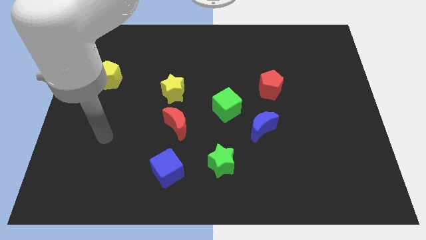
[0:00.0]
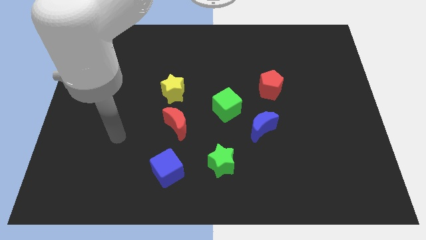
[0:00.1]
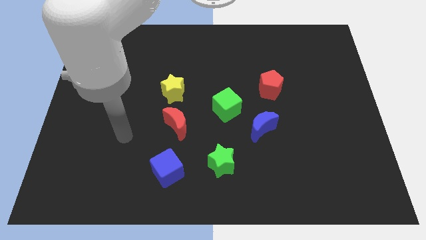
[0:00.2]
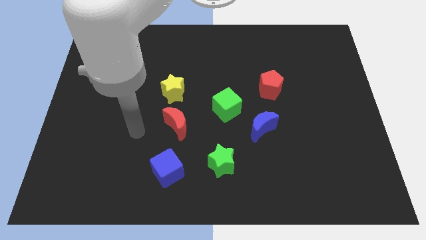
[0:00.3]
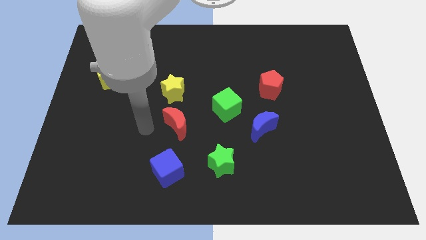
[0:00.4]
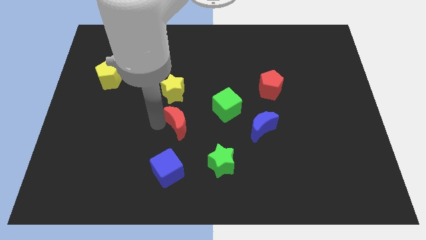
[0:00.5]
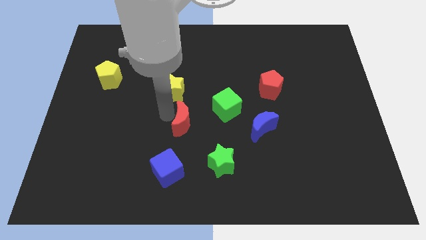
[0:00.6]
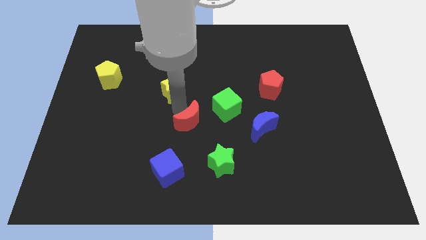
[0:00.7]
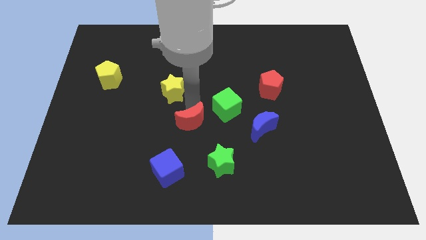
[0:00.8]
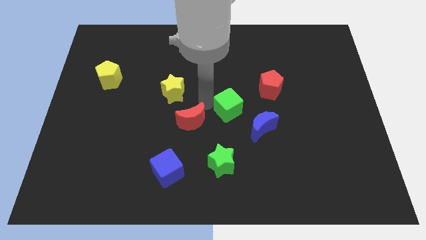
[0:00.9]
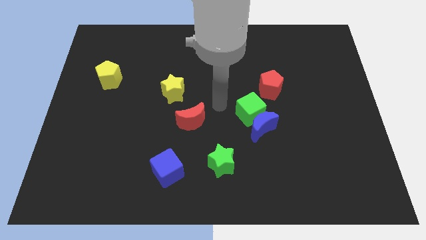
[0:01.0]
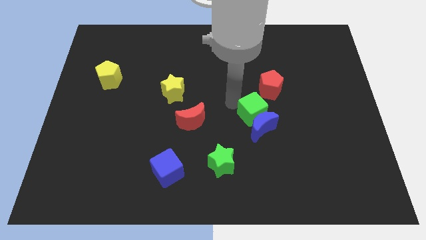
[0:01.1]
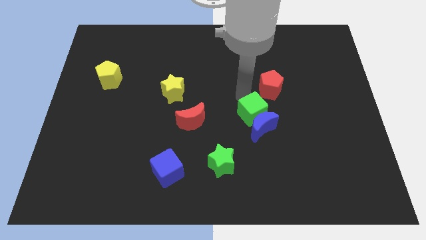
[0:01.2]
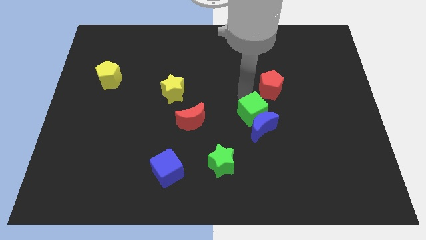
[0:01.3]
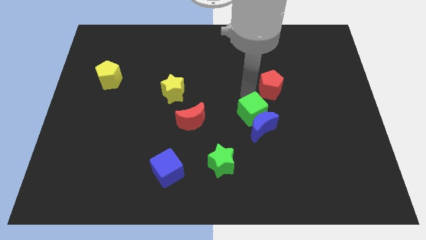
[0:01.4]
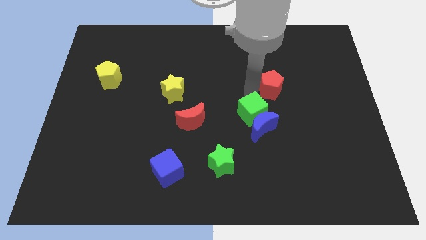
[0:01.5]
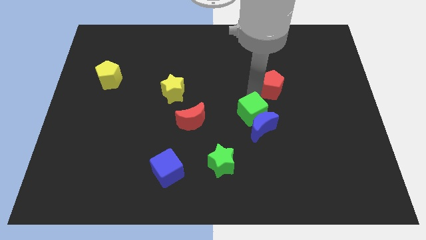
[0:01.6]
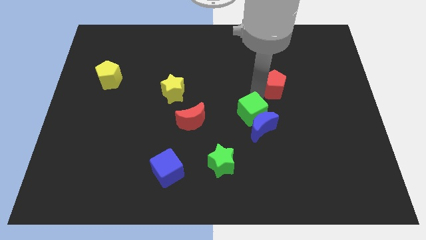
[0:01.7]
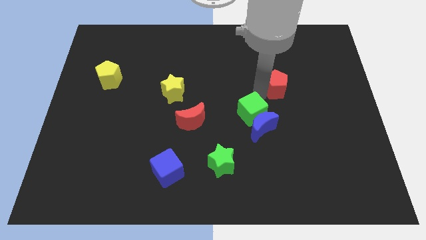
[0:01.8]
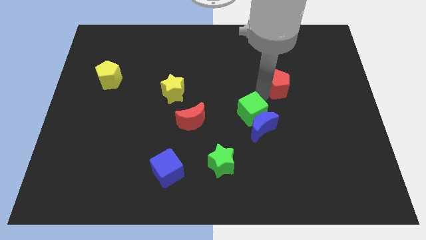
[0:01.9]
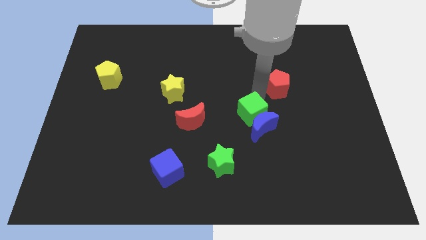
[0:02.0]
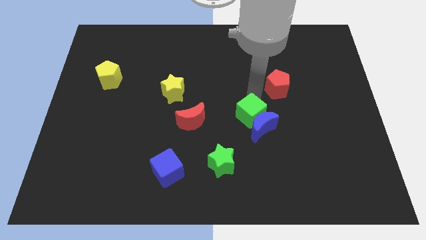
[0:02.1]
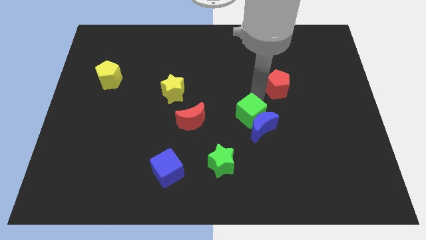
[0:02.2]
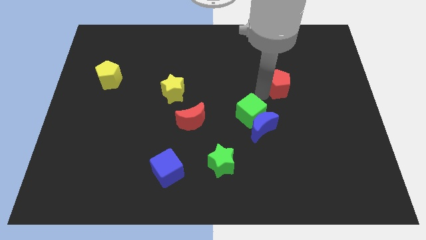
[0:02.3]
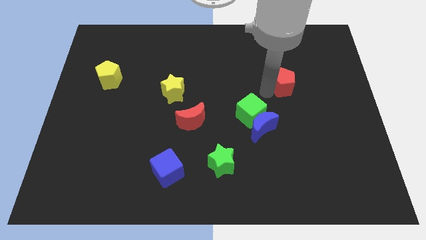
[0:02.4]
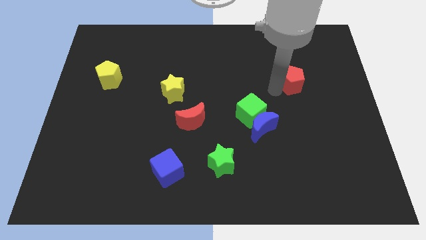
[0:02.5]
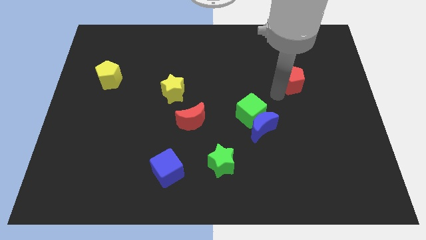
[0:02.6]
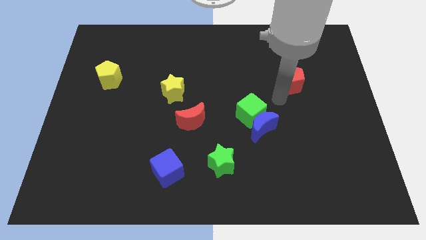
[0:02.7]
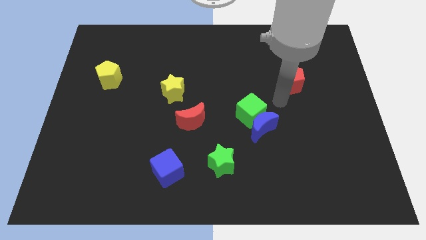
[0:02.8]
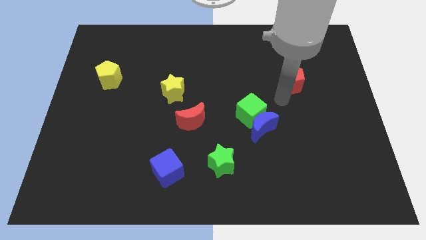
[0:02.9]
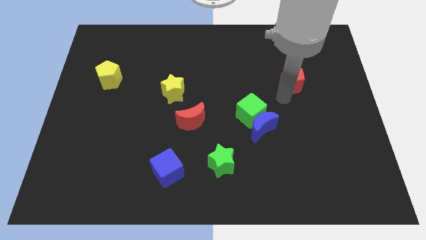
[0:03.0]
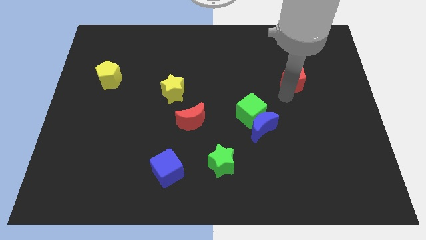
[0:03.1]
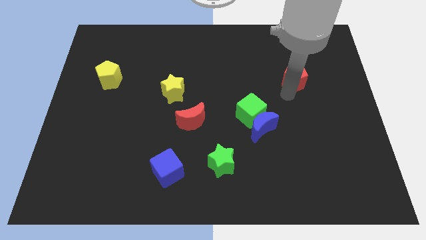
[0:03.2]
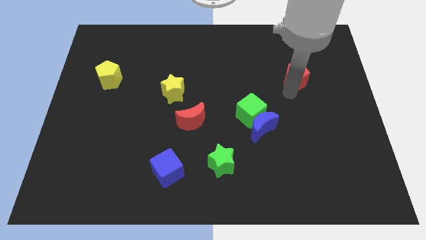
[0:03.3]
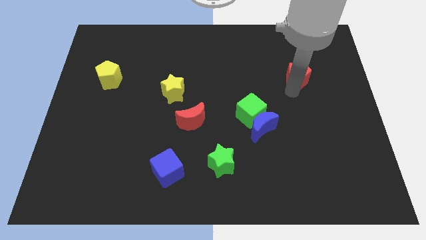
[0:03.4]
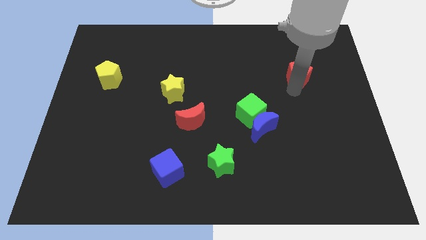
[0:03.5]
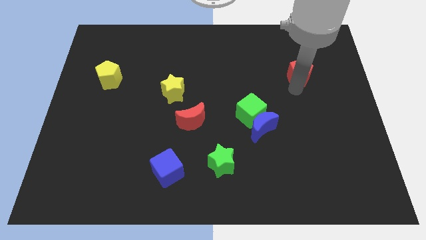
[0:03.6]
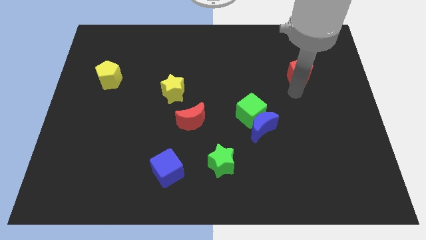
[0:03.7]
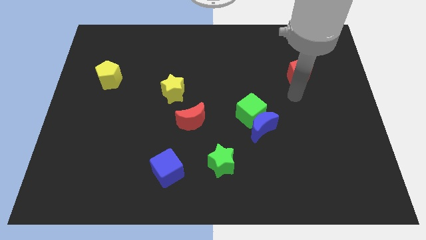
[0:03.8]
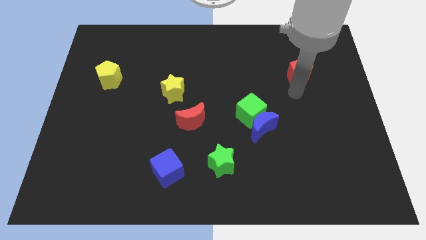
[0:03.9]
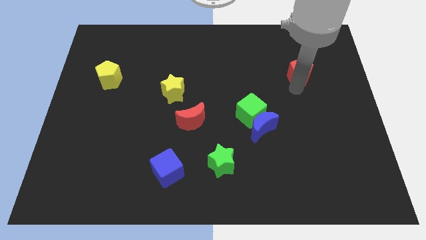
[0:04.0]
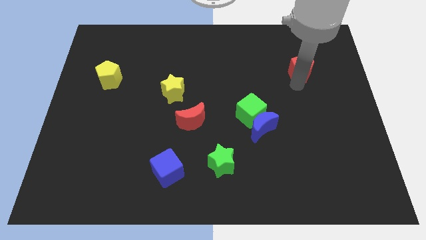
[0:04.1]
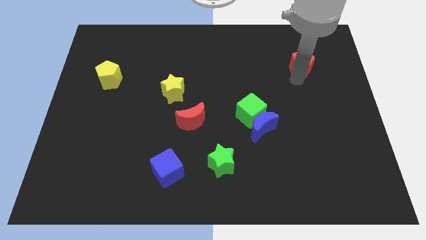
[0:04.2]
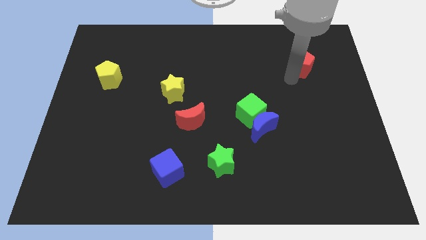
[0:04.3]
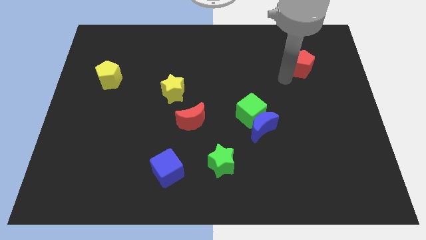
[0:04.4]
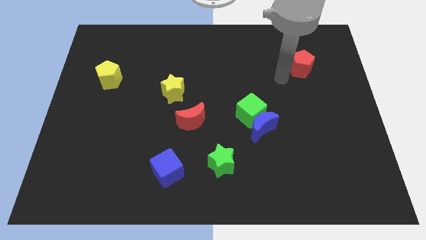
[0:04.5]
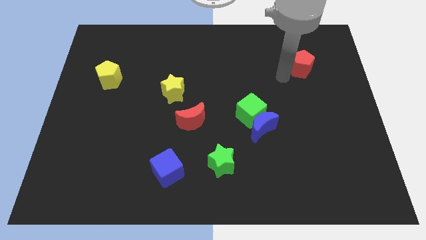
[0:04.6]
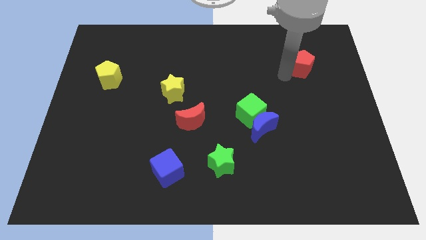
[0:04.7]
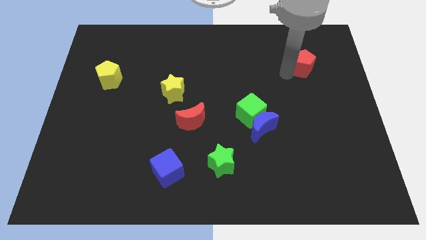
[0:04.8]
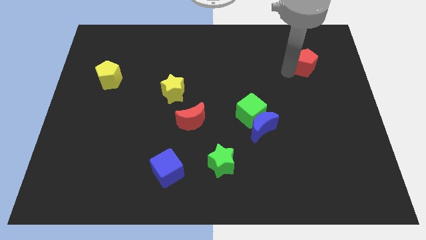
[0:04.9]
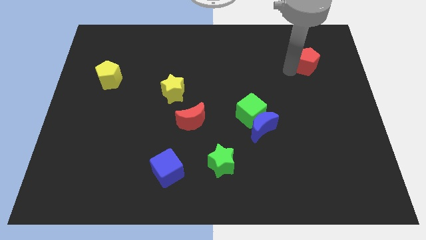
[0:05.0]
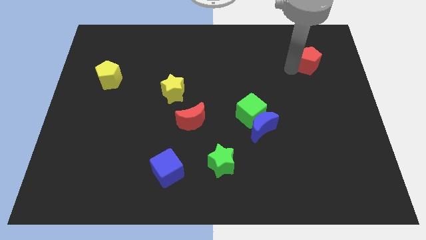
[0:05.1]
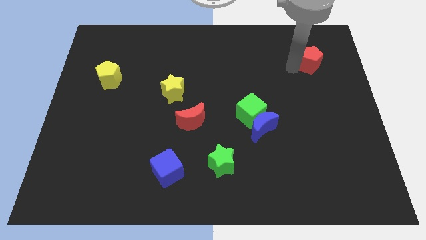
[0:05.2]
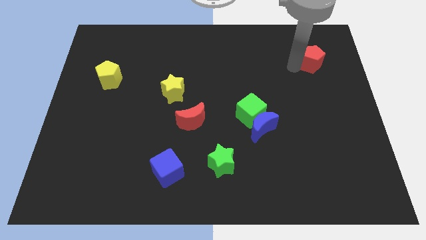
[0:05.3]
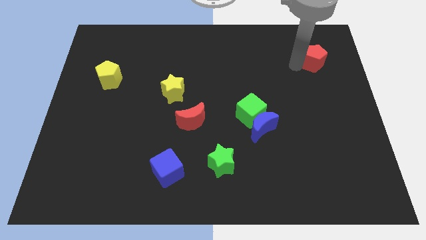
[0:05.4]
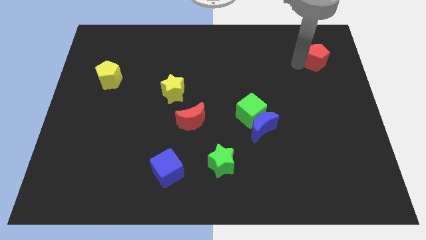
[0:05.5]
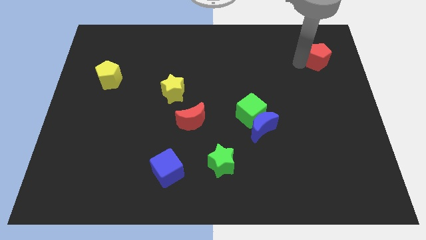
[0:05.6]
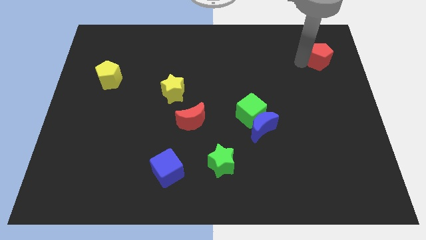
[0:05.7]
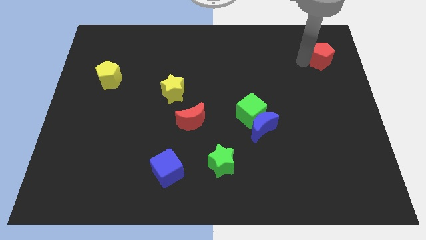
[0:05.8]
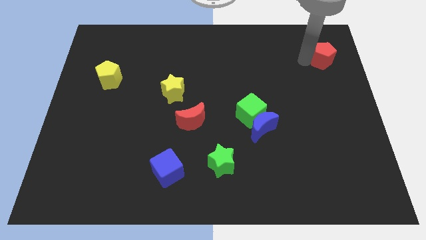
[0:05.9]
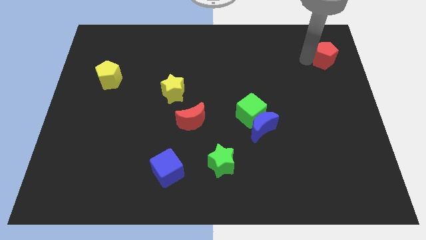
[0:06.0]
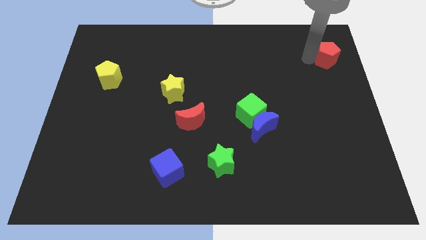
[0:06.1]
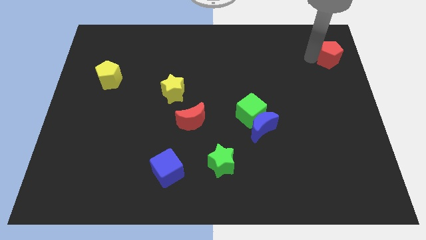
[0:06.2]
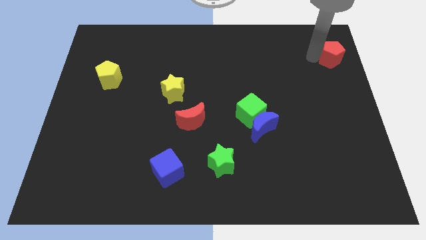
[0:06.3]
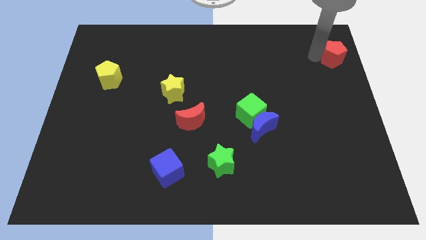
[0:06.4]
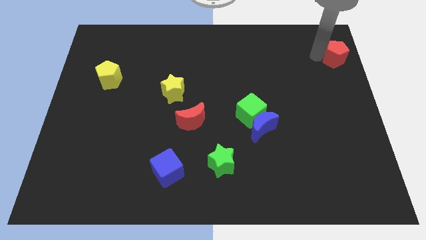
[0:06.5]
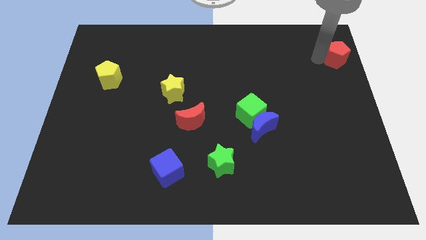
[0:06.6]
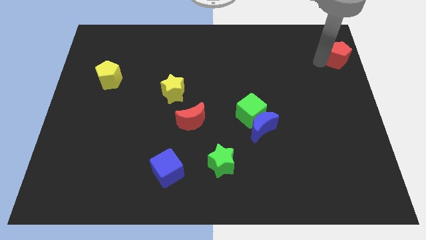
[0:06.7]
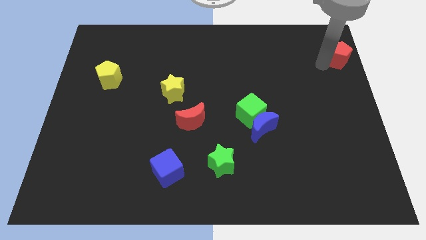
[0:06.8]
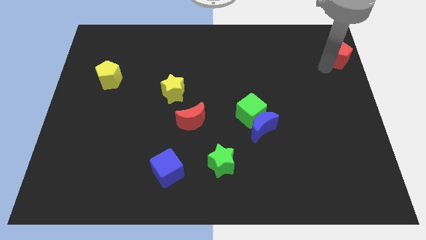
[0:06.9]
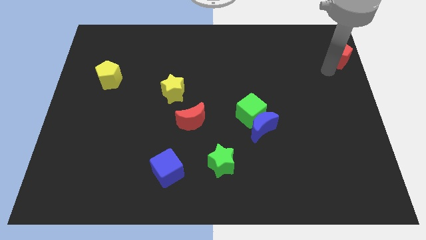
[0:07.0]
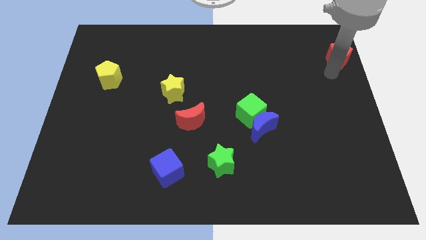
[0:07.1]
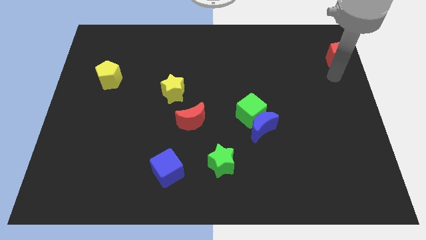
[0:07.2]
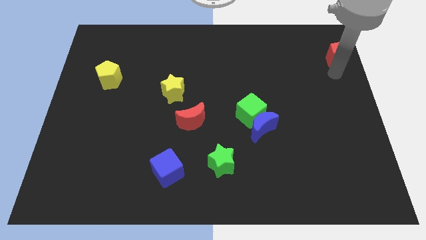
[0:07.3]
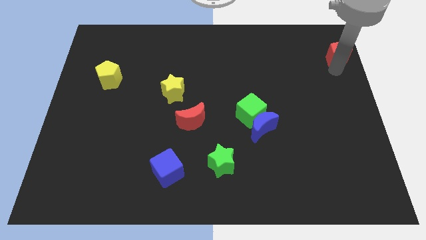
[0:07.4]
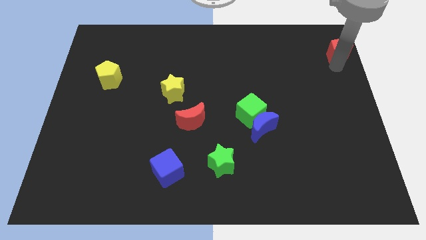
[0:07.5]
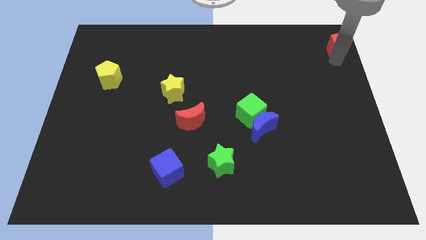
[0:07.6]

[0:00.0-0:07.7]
move the red pentagon to the top right of the board
